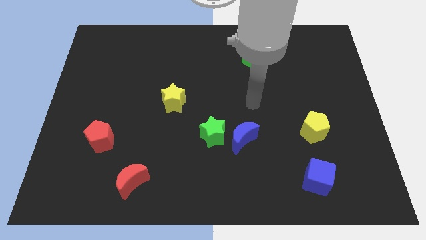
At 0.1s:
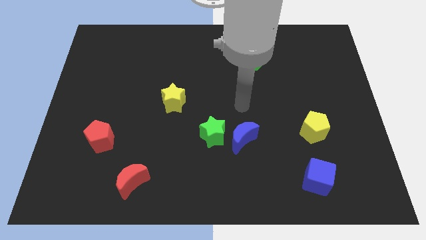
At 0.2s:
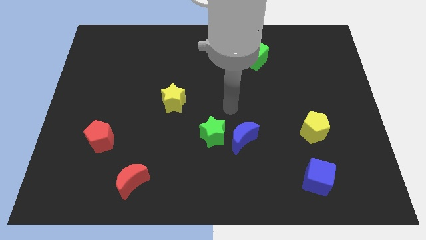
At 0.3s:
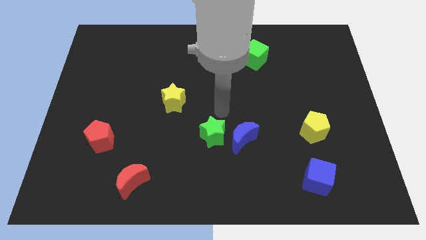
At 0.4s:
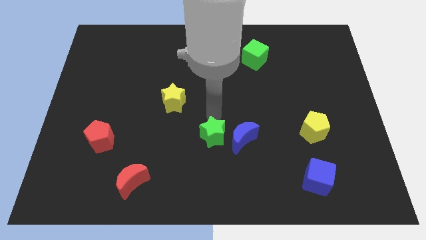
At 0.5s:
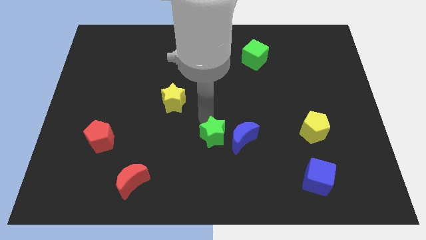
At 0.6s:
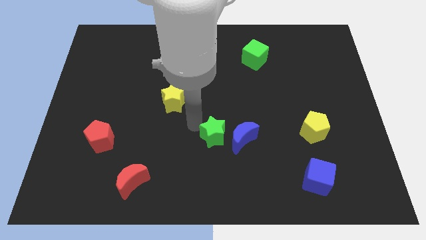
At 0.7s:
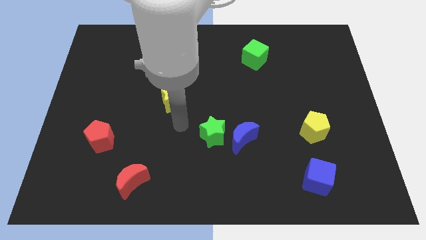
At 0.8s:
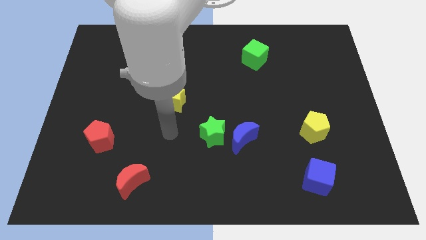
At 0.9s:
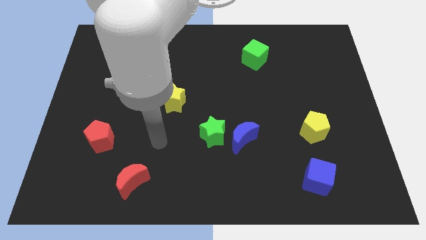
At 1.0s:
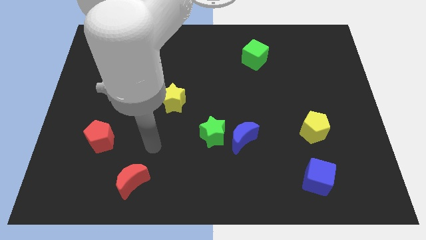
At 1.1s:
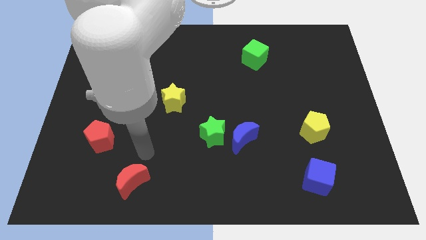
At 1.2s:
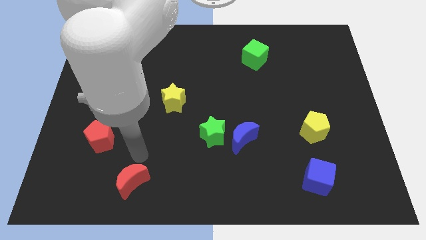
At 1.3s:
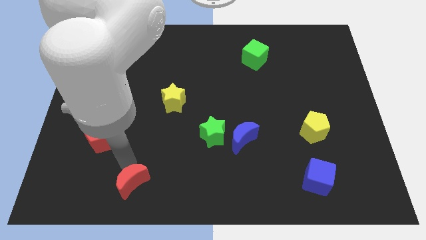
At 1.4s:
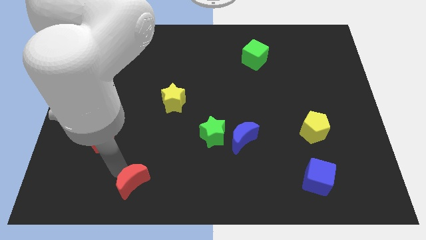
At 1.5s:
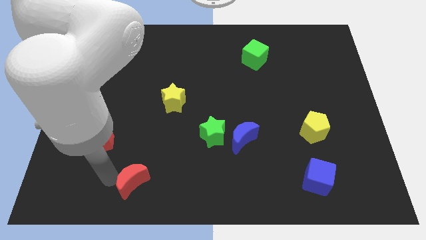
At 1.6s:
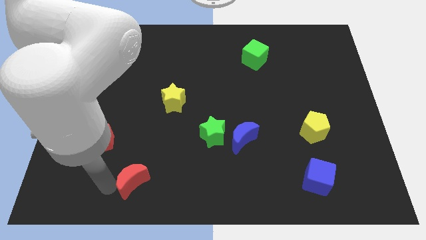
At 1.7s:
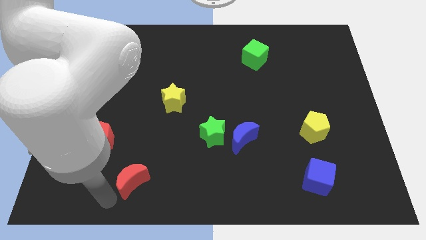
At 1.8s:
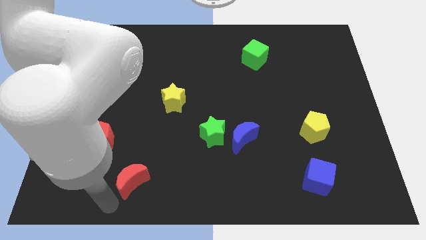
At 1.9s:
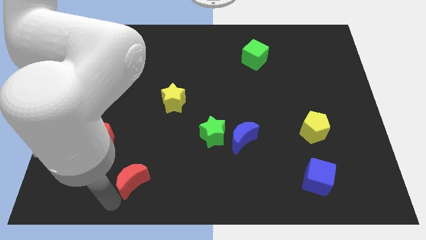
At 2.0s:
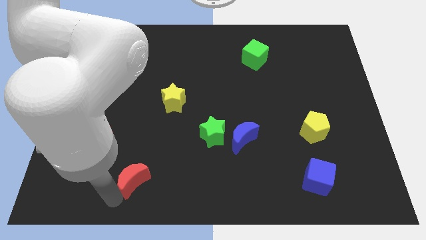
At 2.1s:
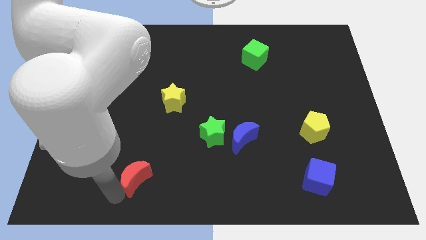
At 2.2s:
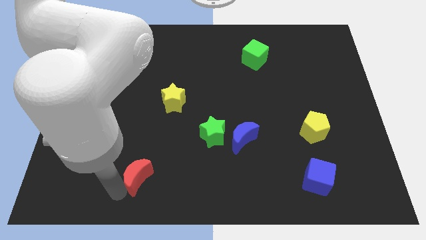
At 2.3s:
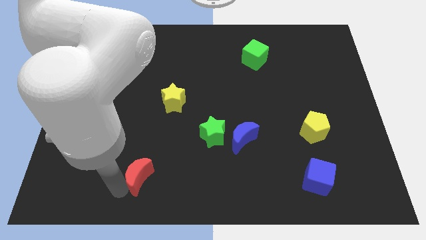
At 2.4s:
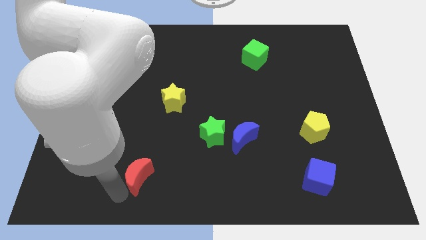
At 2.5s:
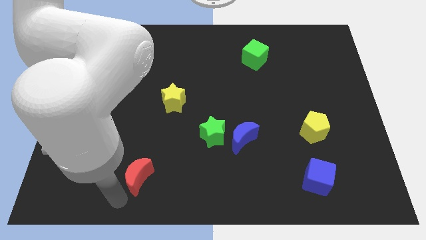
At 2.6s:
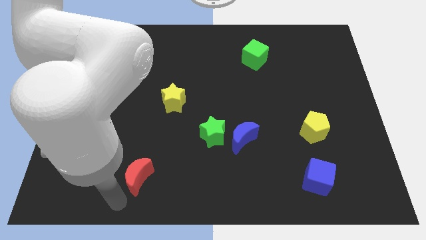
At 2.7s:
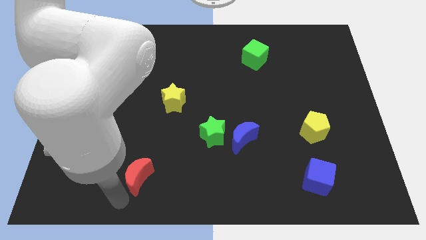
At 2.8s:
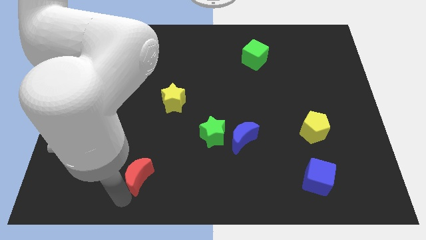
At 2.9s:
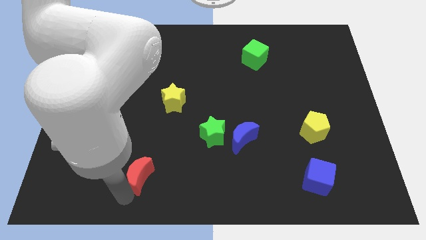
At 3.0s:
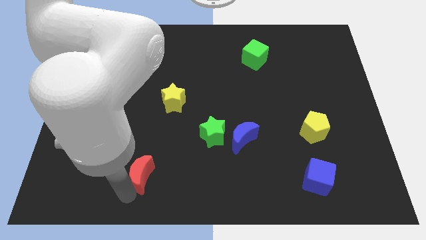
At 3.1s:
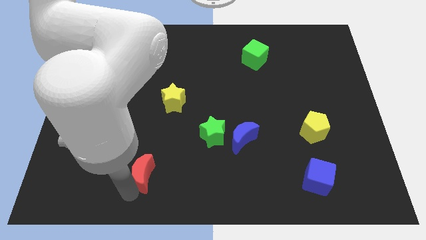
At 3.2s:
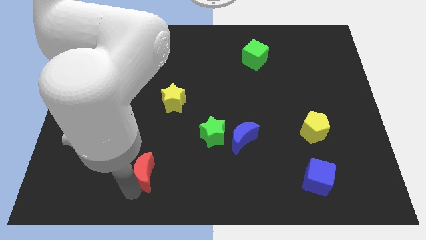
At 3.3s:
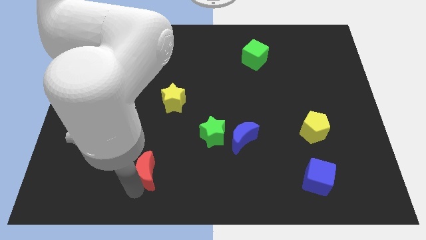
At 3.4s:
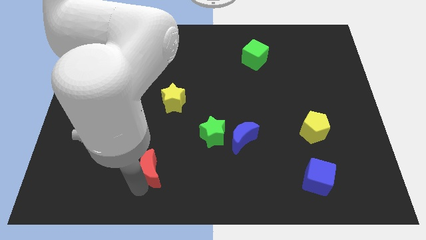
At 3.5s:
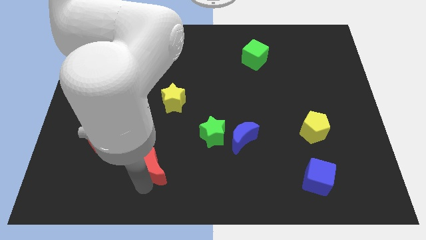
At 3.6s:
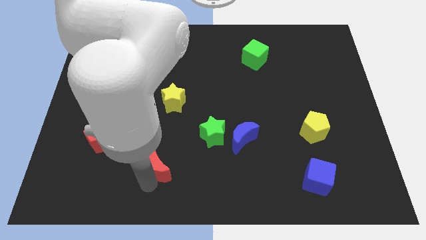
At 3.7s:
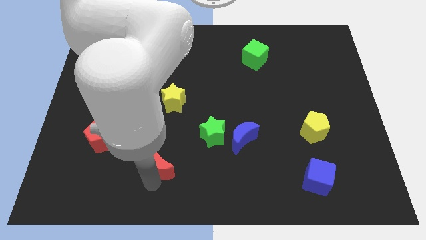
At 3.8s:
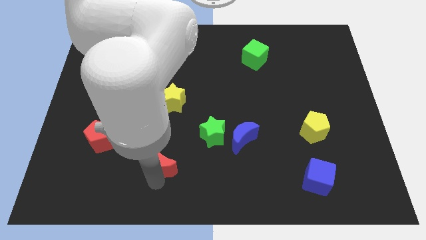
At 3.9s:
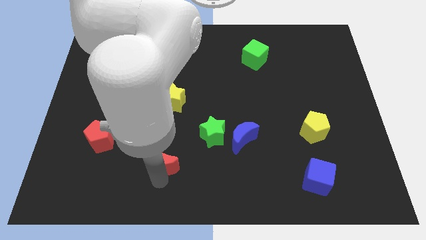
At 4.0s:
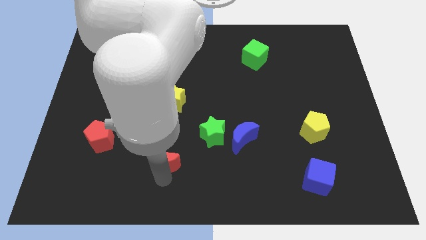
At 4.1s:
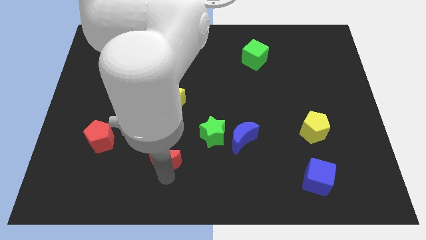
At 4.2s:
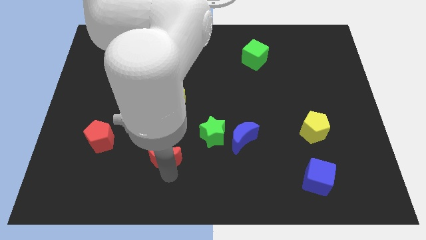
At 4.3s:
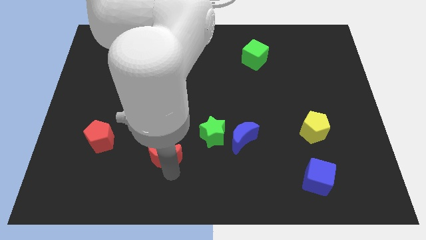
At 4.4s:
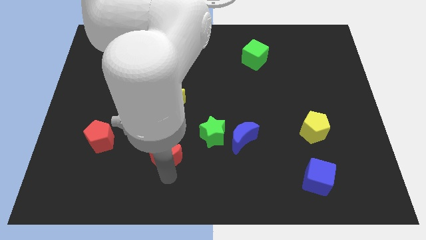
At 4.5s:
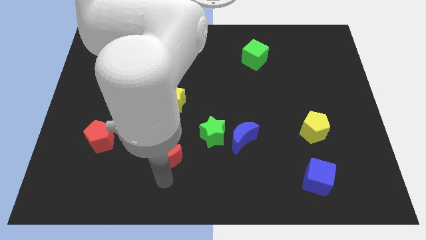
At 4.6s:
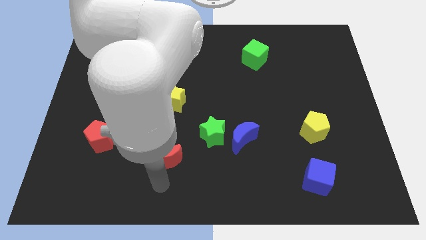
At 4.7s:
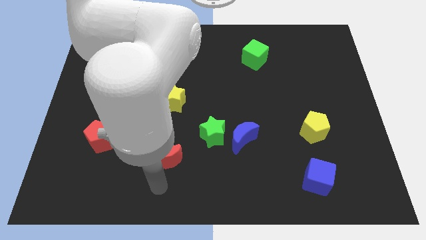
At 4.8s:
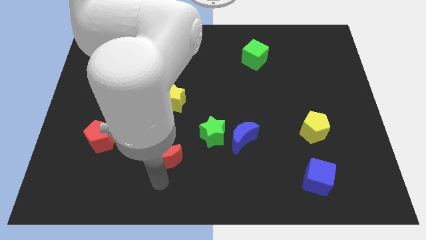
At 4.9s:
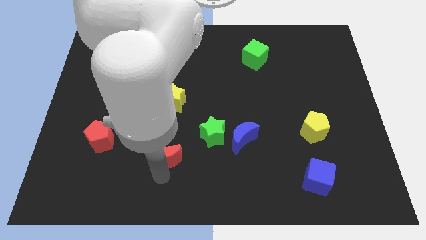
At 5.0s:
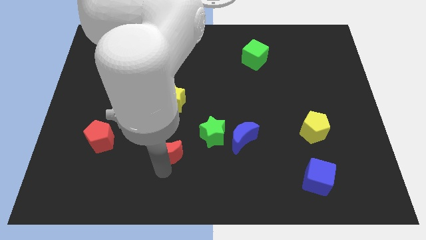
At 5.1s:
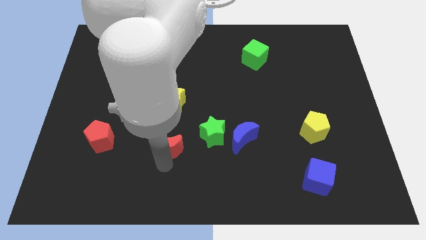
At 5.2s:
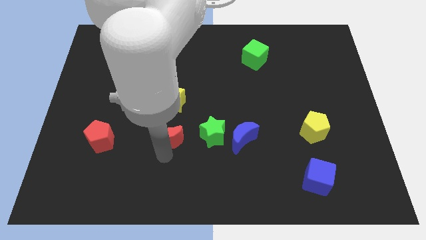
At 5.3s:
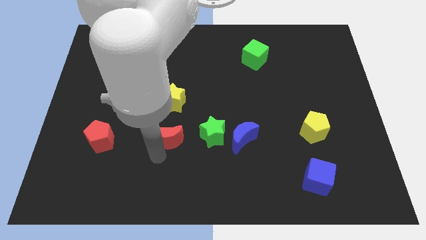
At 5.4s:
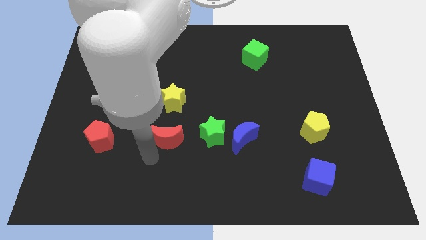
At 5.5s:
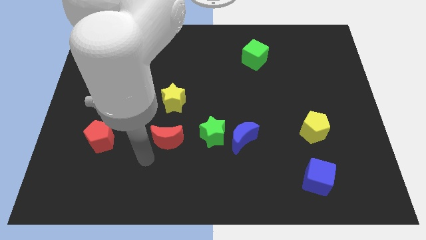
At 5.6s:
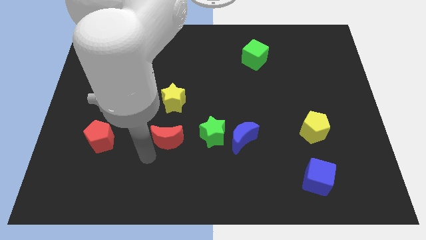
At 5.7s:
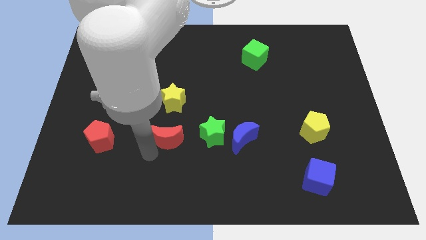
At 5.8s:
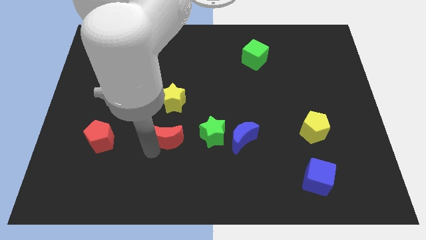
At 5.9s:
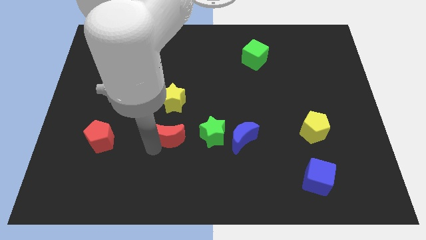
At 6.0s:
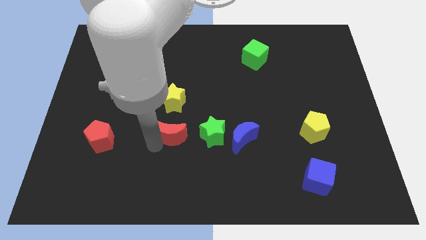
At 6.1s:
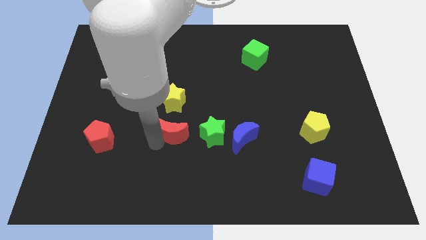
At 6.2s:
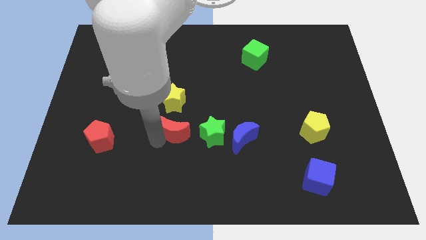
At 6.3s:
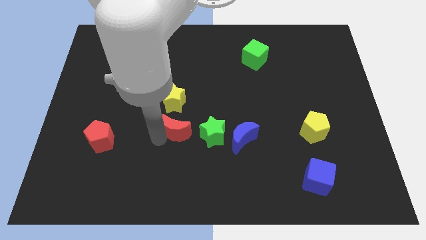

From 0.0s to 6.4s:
push the red moon to the middle of the board
